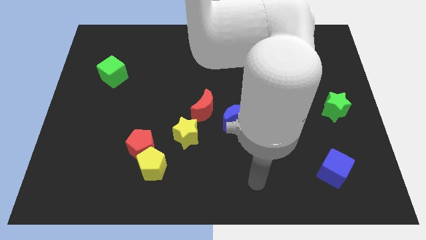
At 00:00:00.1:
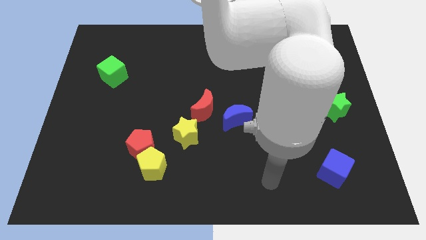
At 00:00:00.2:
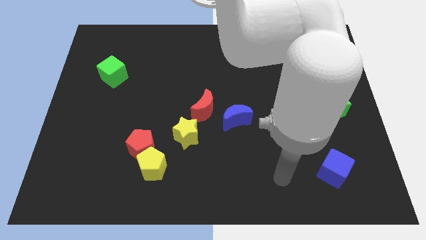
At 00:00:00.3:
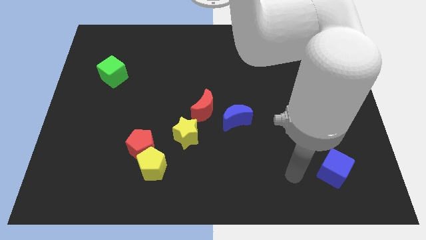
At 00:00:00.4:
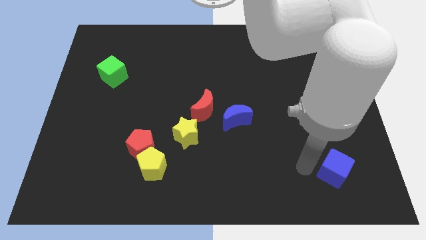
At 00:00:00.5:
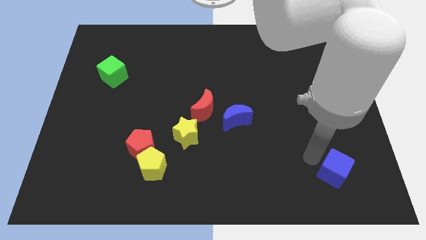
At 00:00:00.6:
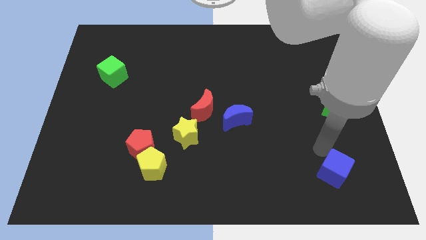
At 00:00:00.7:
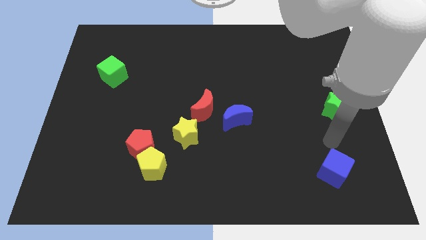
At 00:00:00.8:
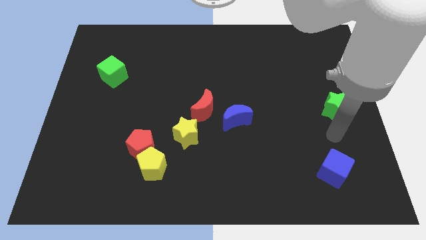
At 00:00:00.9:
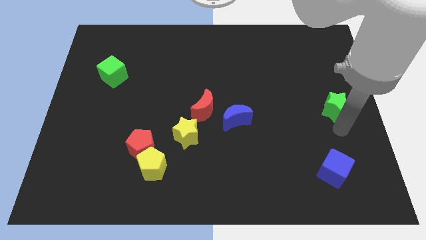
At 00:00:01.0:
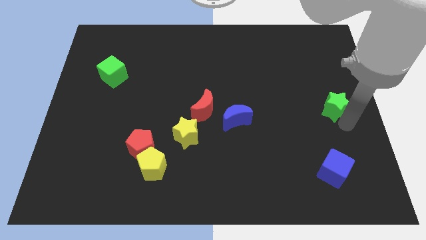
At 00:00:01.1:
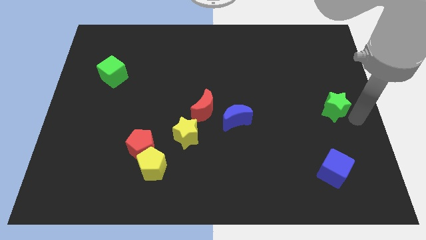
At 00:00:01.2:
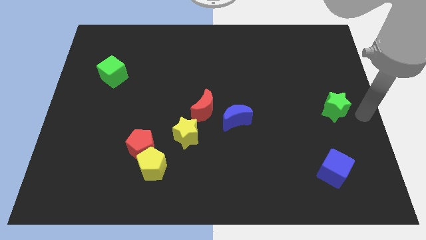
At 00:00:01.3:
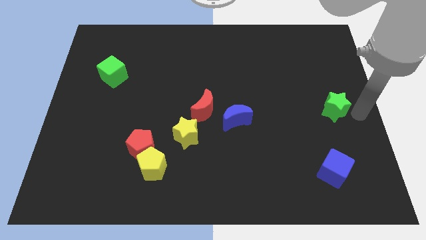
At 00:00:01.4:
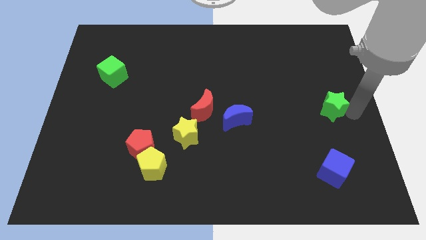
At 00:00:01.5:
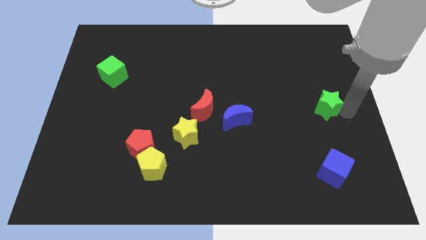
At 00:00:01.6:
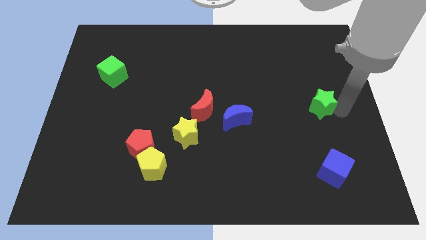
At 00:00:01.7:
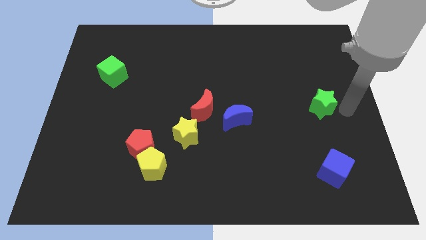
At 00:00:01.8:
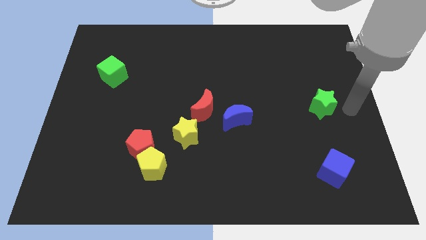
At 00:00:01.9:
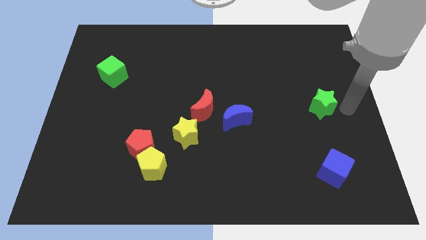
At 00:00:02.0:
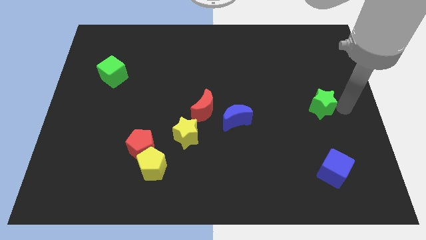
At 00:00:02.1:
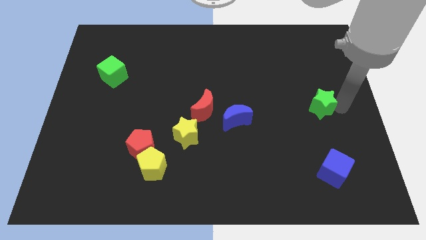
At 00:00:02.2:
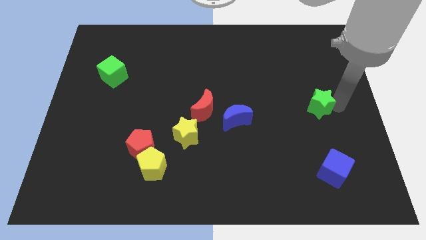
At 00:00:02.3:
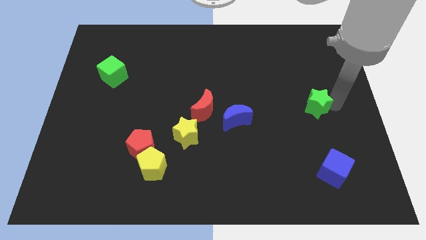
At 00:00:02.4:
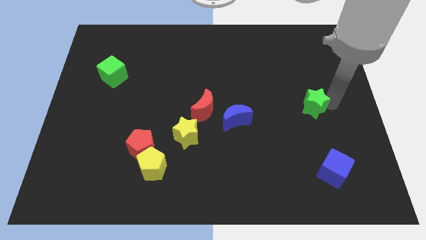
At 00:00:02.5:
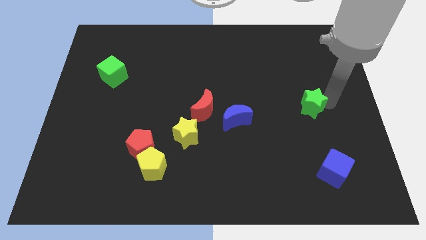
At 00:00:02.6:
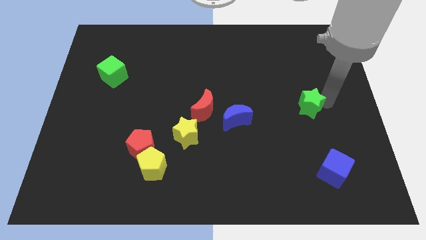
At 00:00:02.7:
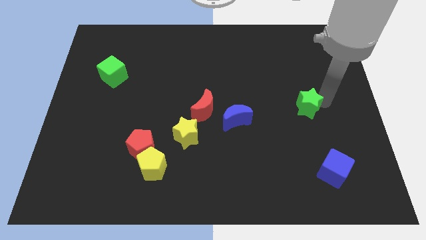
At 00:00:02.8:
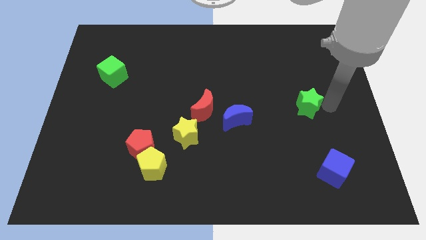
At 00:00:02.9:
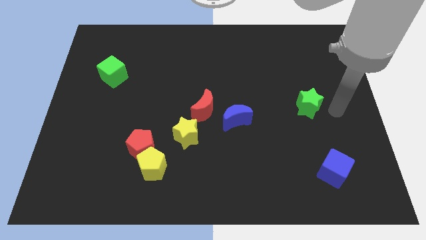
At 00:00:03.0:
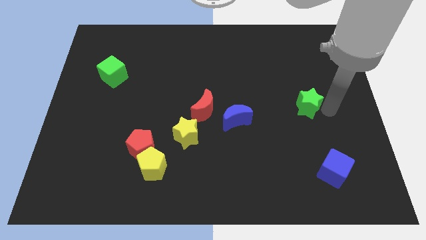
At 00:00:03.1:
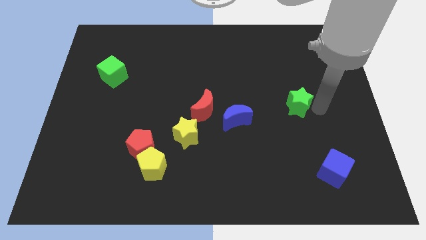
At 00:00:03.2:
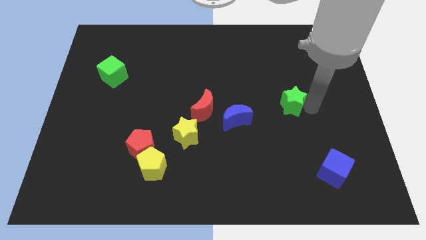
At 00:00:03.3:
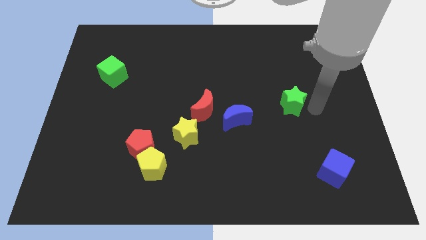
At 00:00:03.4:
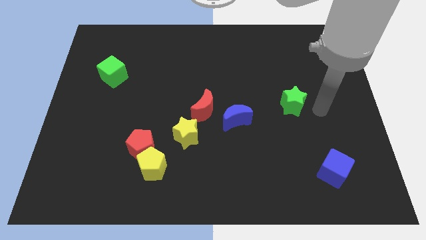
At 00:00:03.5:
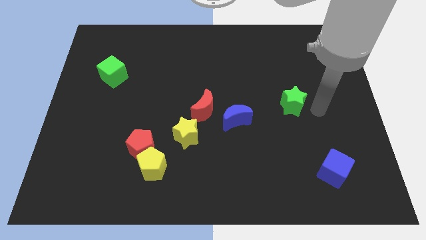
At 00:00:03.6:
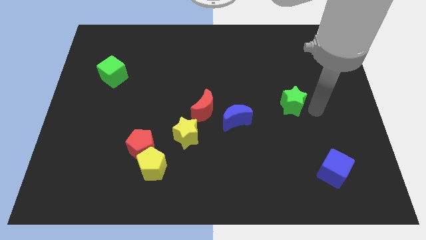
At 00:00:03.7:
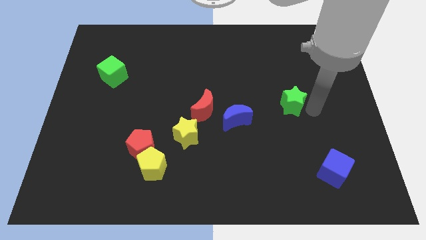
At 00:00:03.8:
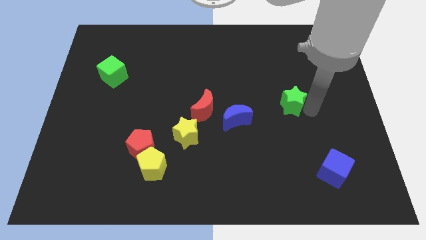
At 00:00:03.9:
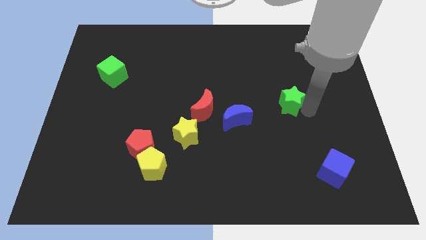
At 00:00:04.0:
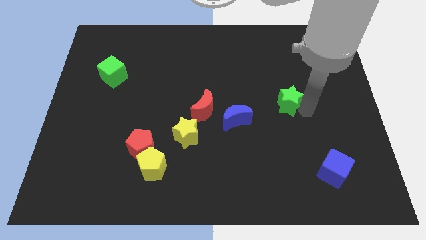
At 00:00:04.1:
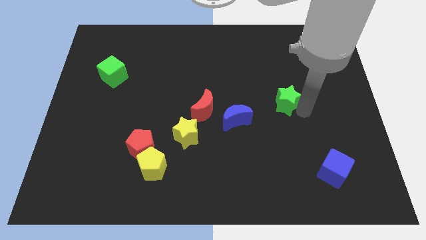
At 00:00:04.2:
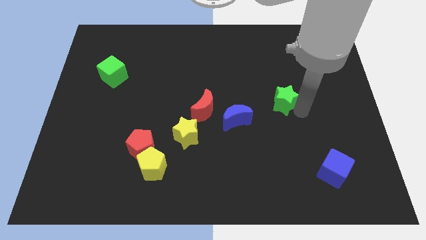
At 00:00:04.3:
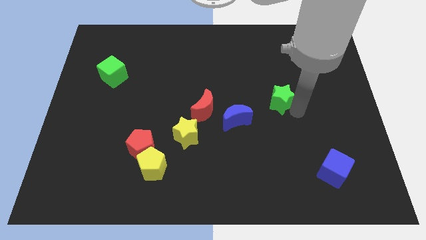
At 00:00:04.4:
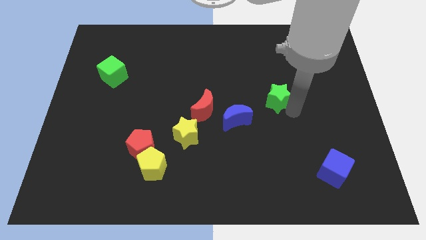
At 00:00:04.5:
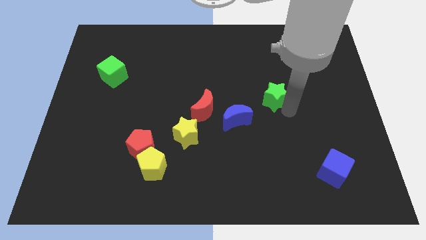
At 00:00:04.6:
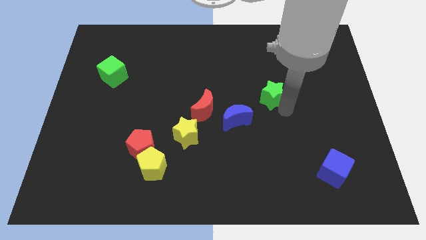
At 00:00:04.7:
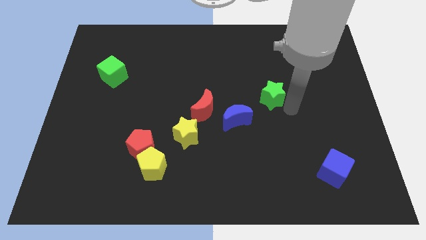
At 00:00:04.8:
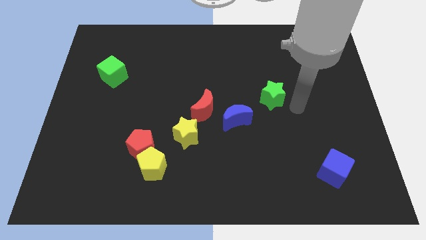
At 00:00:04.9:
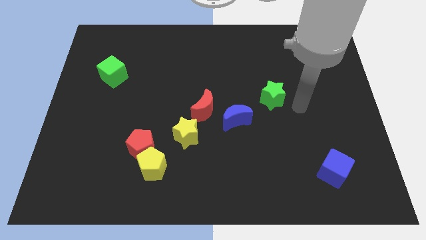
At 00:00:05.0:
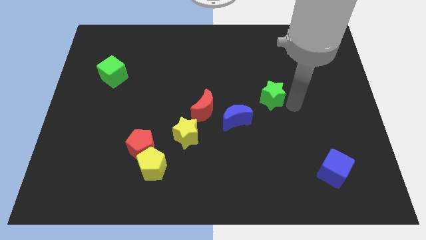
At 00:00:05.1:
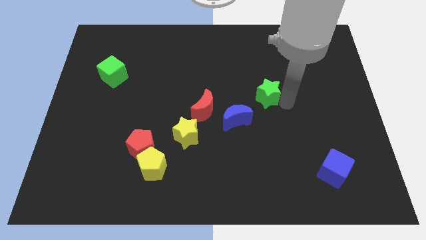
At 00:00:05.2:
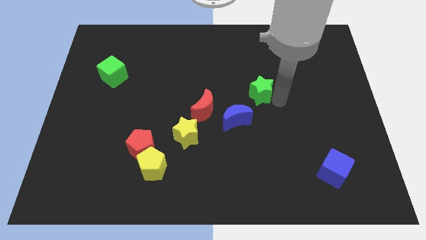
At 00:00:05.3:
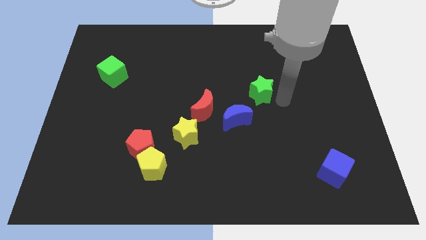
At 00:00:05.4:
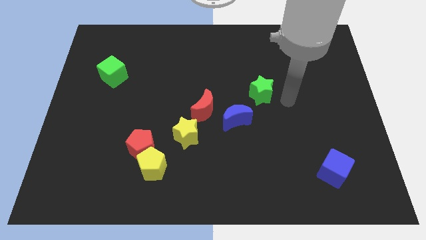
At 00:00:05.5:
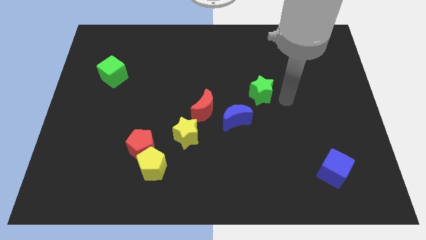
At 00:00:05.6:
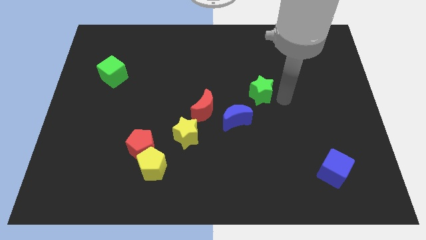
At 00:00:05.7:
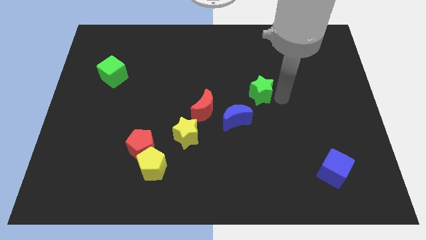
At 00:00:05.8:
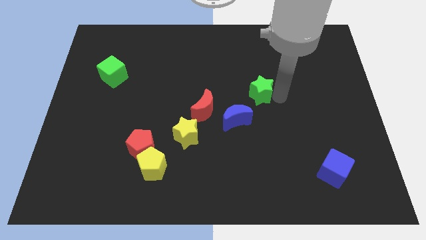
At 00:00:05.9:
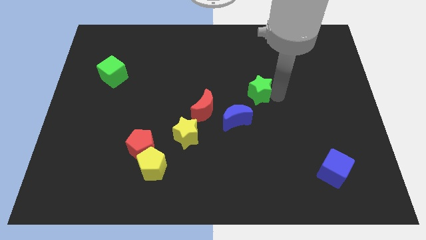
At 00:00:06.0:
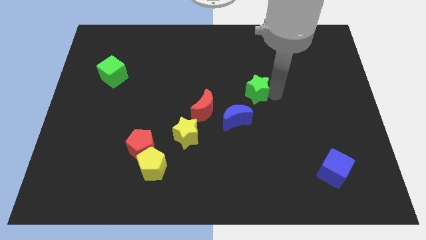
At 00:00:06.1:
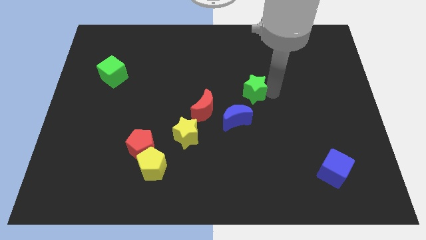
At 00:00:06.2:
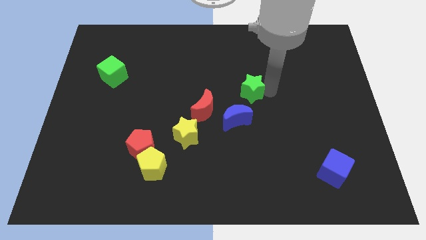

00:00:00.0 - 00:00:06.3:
slide the green star to the top side of the blue moon

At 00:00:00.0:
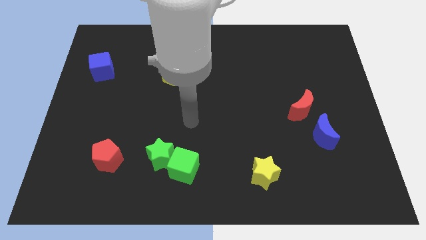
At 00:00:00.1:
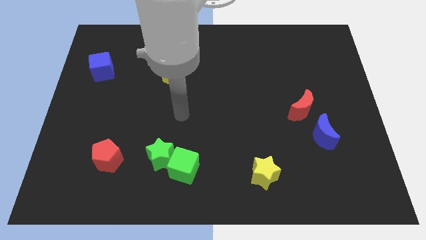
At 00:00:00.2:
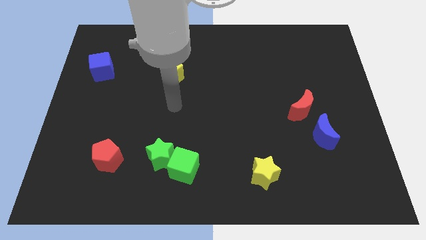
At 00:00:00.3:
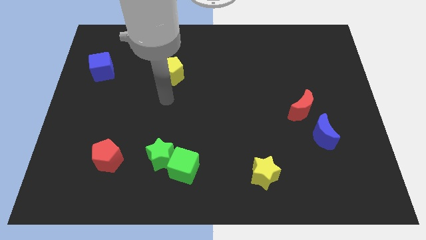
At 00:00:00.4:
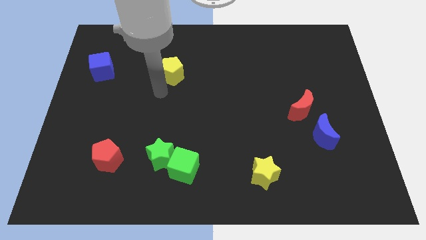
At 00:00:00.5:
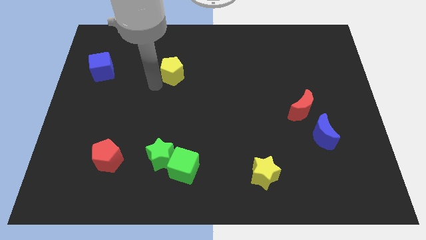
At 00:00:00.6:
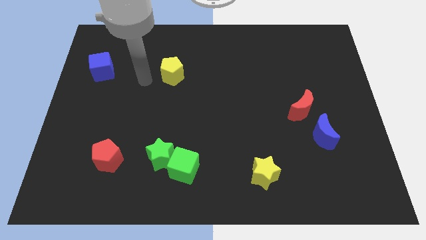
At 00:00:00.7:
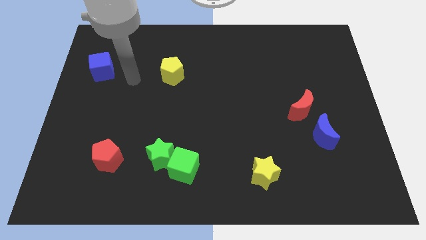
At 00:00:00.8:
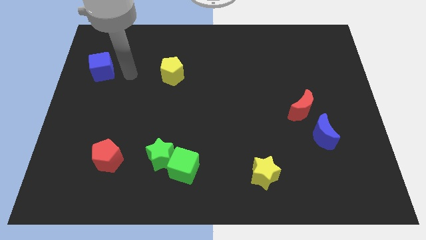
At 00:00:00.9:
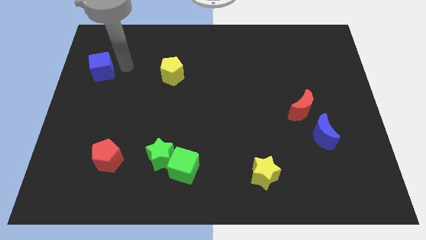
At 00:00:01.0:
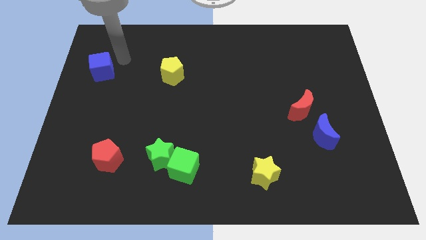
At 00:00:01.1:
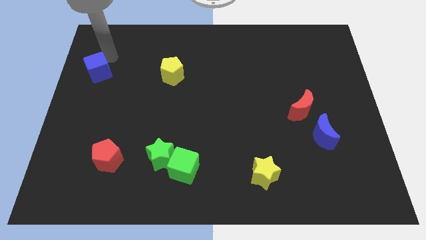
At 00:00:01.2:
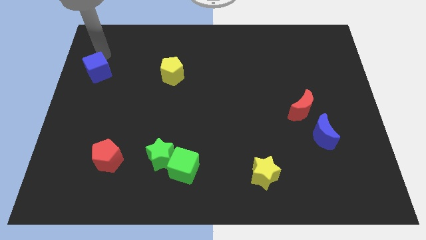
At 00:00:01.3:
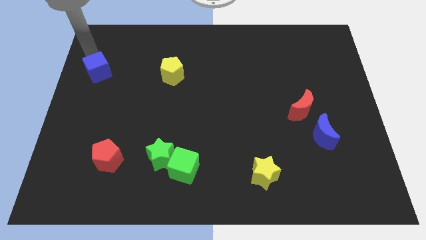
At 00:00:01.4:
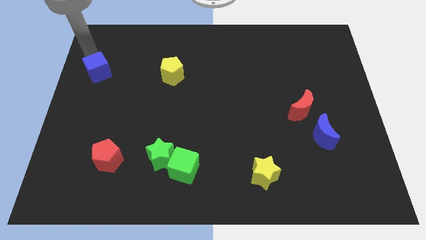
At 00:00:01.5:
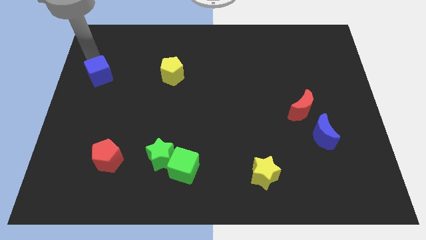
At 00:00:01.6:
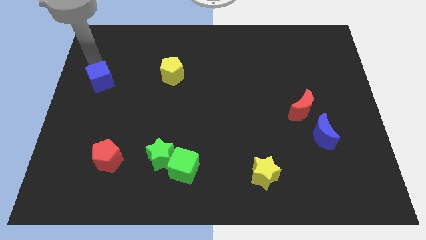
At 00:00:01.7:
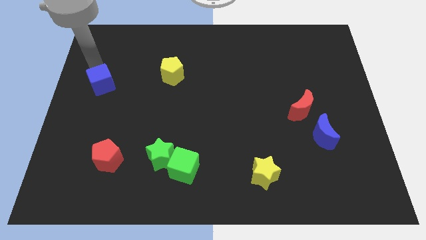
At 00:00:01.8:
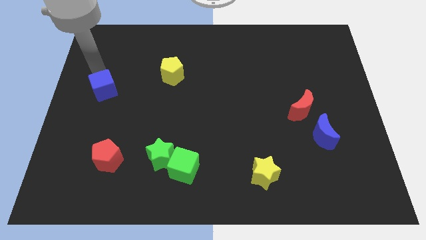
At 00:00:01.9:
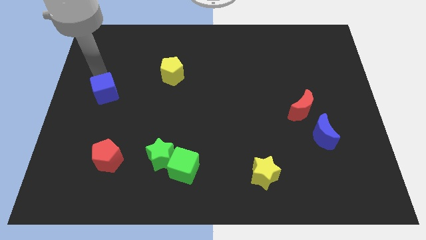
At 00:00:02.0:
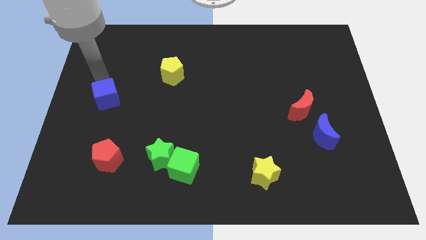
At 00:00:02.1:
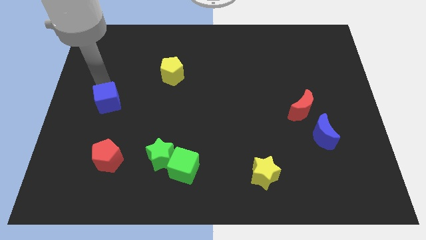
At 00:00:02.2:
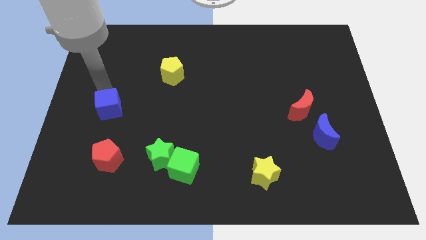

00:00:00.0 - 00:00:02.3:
slide the blue cube above the red pentagon
